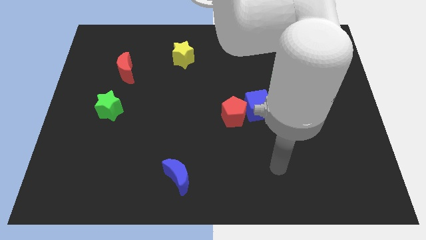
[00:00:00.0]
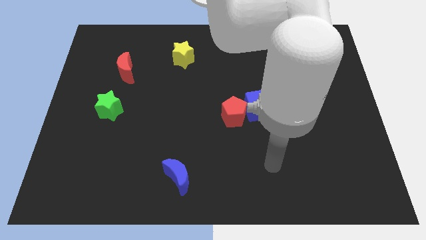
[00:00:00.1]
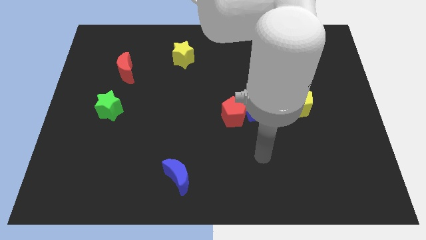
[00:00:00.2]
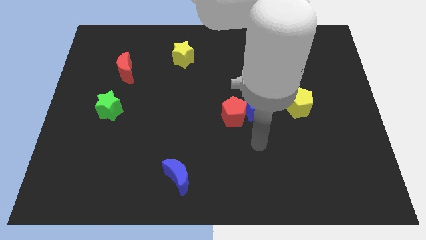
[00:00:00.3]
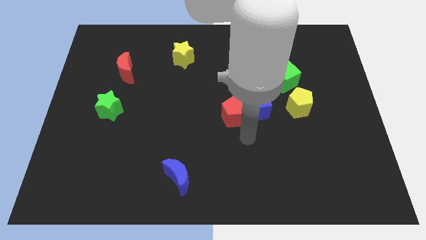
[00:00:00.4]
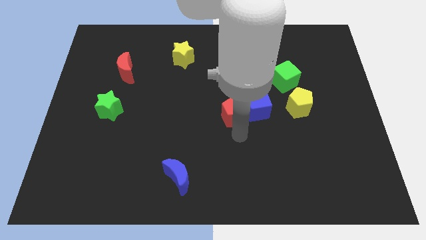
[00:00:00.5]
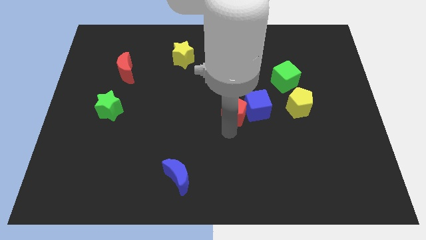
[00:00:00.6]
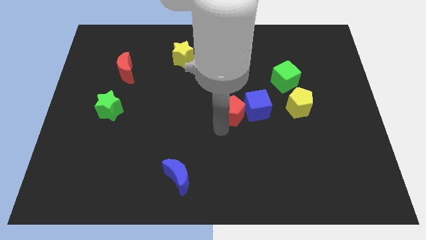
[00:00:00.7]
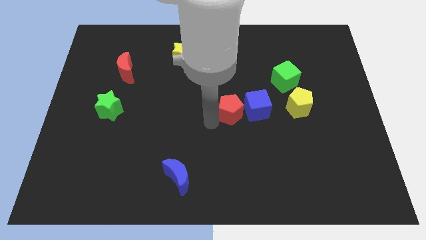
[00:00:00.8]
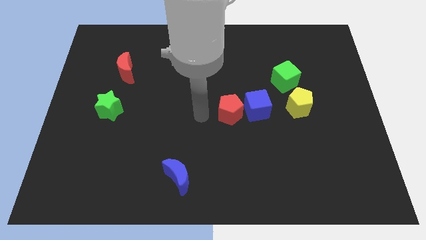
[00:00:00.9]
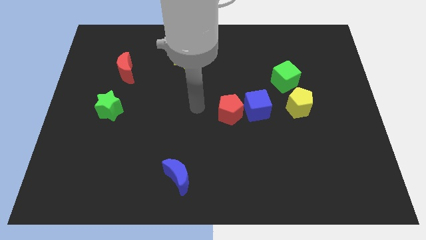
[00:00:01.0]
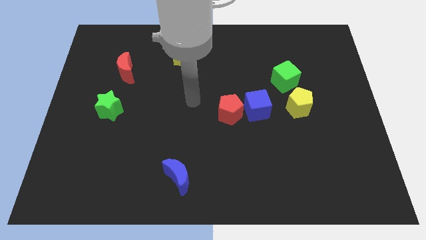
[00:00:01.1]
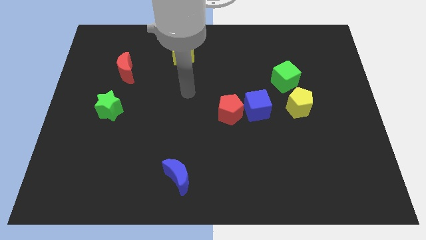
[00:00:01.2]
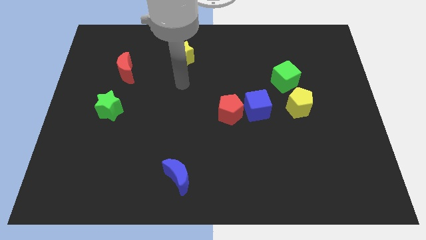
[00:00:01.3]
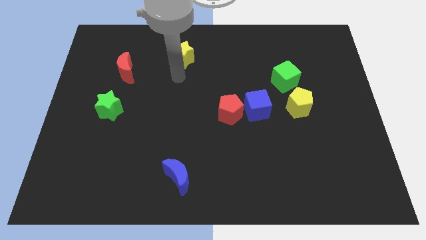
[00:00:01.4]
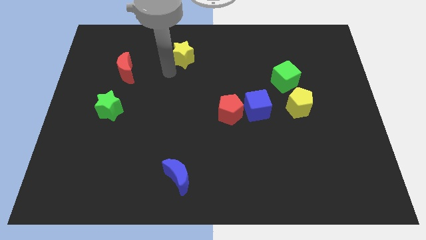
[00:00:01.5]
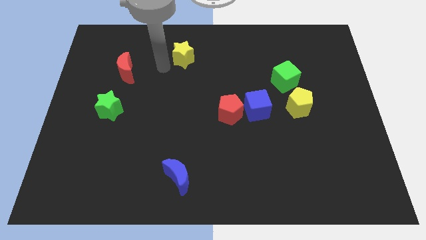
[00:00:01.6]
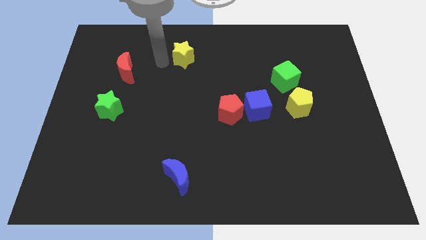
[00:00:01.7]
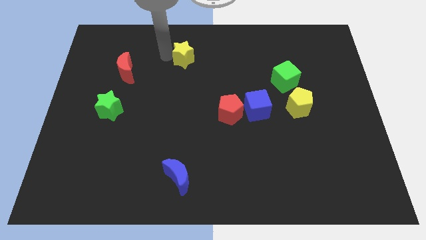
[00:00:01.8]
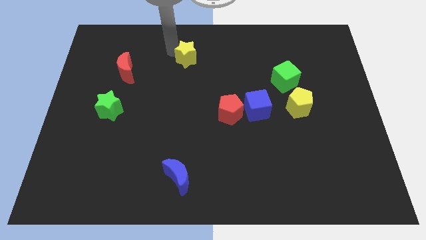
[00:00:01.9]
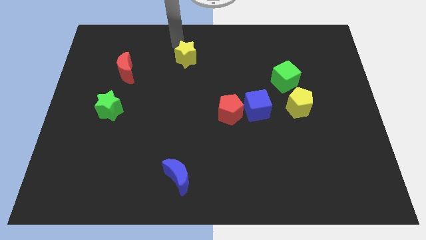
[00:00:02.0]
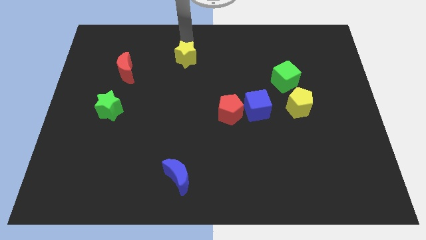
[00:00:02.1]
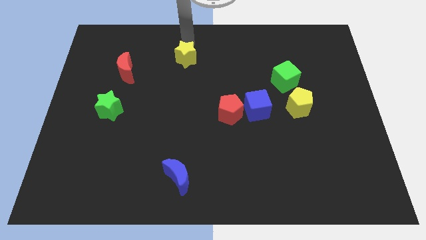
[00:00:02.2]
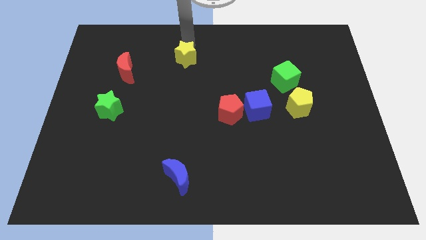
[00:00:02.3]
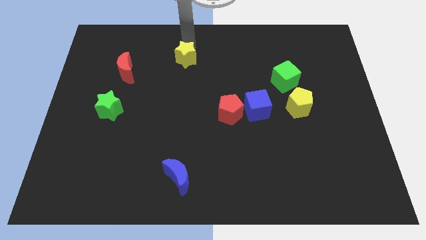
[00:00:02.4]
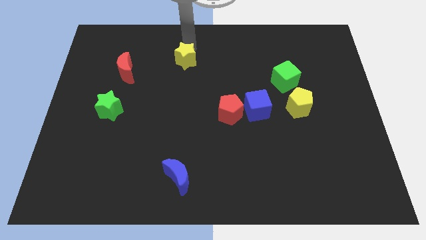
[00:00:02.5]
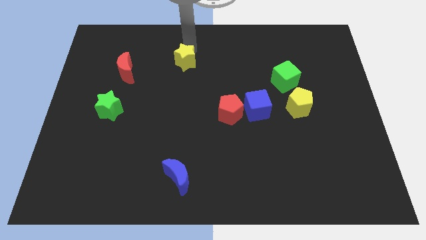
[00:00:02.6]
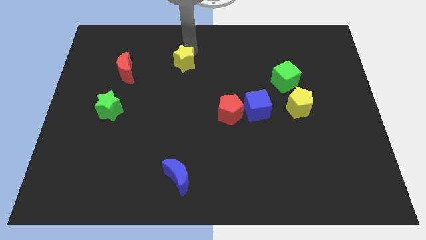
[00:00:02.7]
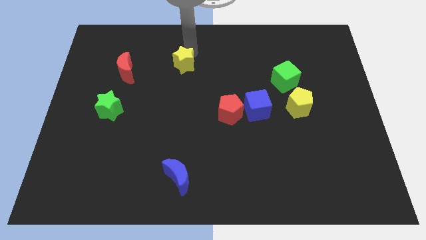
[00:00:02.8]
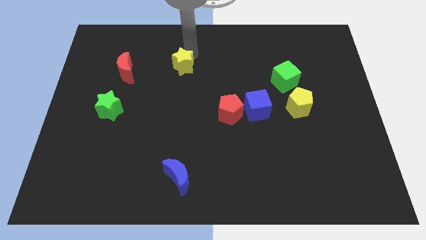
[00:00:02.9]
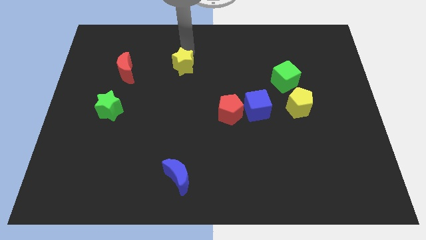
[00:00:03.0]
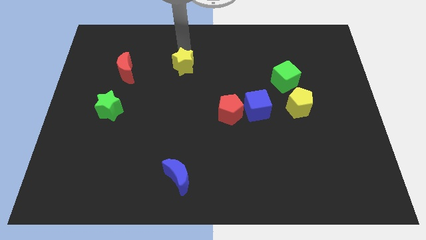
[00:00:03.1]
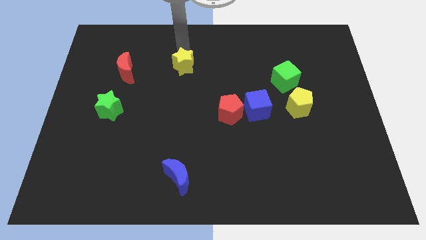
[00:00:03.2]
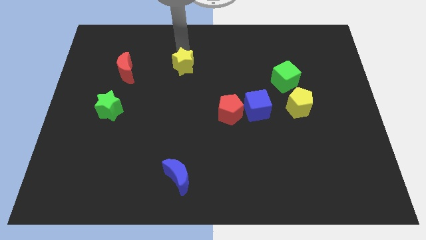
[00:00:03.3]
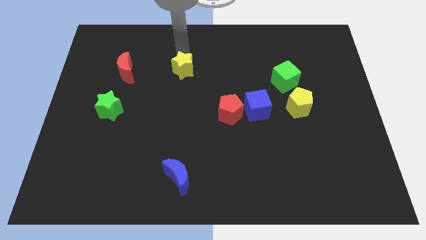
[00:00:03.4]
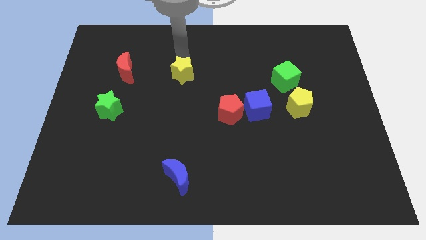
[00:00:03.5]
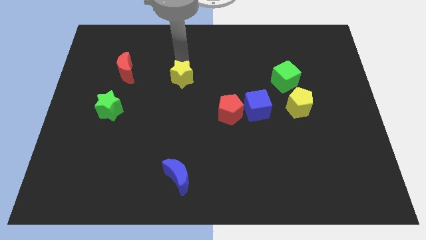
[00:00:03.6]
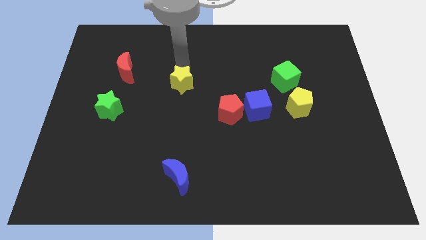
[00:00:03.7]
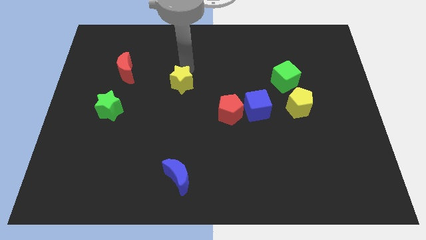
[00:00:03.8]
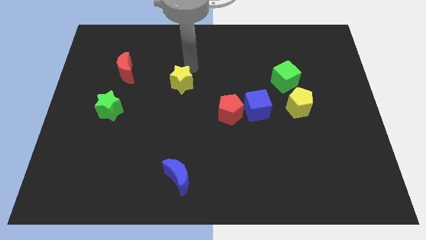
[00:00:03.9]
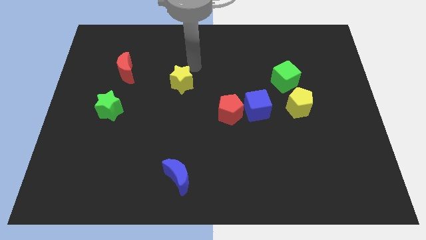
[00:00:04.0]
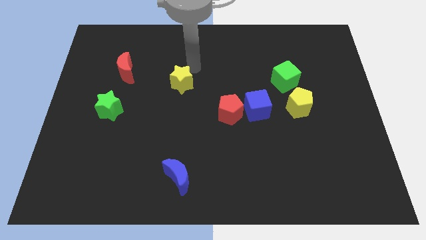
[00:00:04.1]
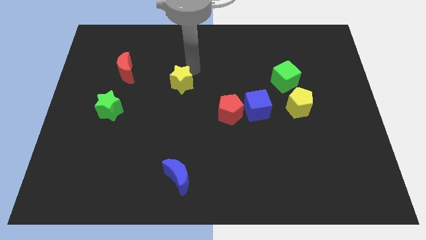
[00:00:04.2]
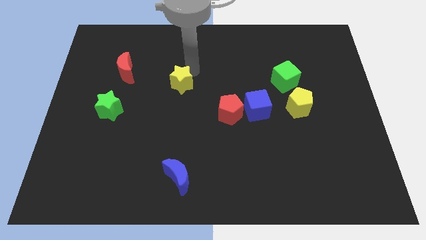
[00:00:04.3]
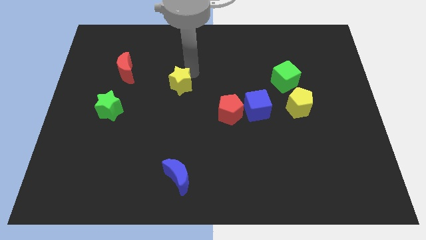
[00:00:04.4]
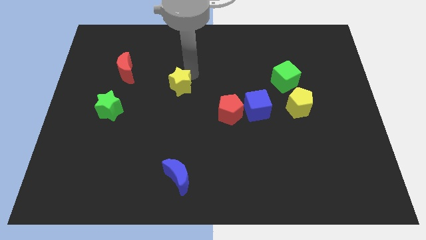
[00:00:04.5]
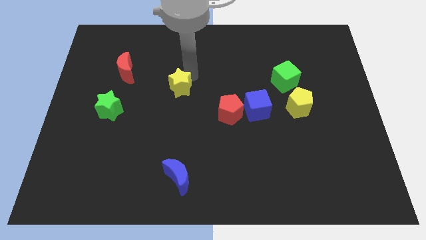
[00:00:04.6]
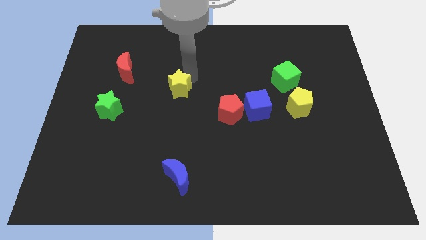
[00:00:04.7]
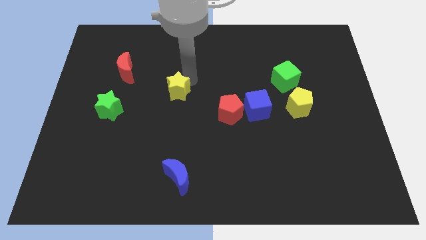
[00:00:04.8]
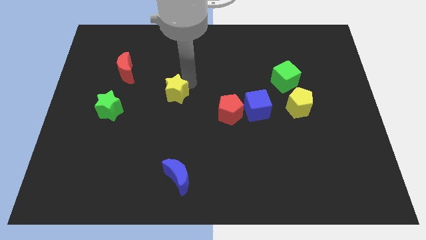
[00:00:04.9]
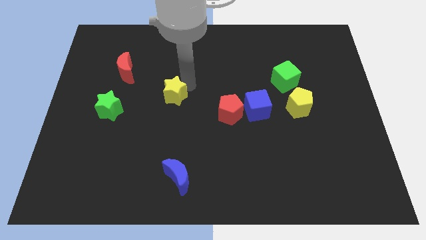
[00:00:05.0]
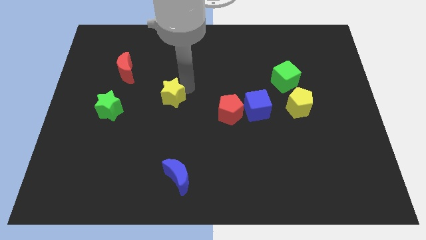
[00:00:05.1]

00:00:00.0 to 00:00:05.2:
slide the yellow star to the right side of the green star

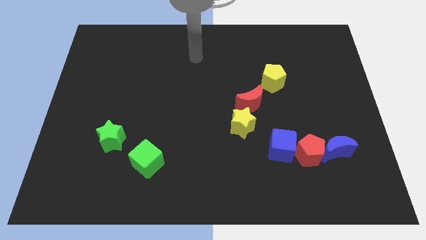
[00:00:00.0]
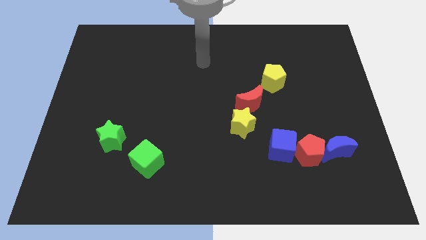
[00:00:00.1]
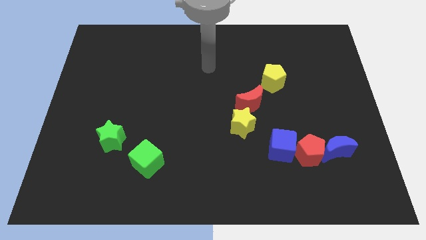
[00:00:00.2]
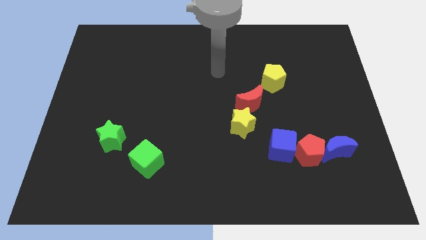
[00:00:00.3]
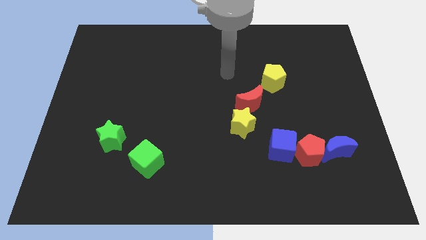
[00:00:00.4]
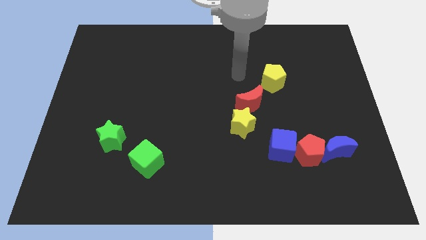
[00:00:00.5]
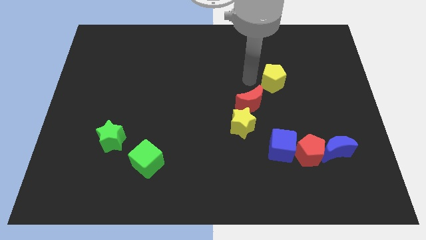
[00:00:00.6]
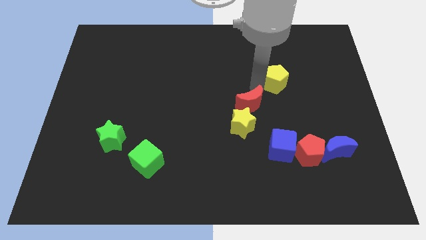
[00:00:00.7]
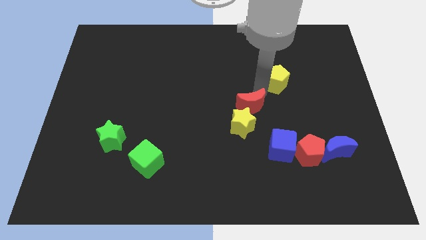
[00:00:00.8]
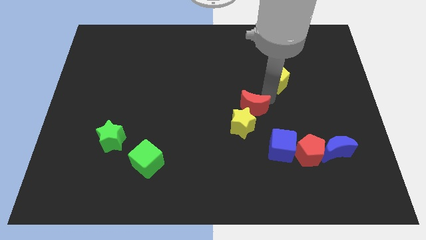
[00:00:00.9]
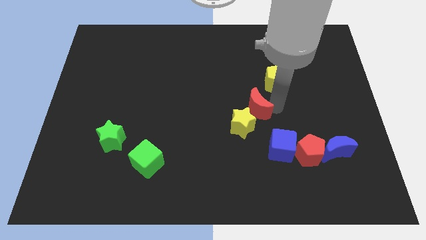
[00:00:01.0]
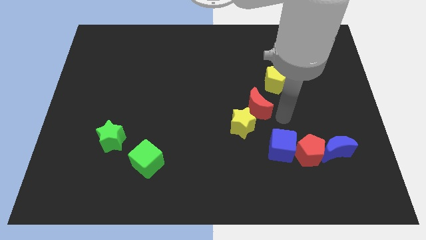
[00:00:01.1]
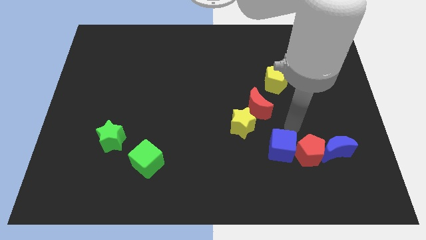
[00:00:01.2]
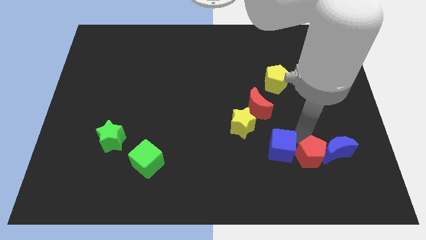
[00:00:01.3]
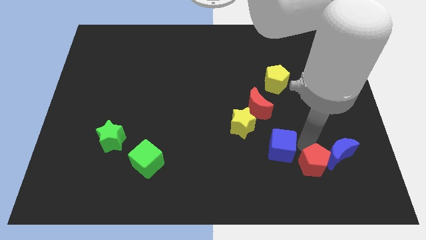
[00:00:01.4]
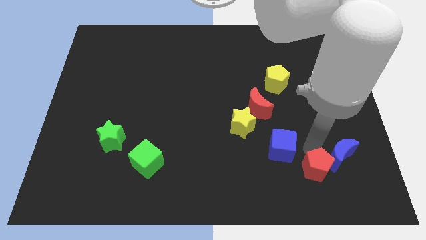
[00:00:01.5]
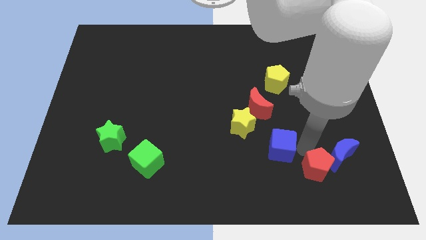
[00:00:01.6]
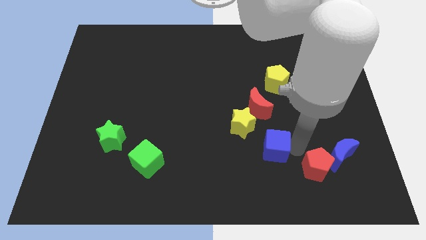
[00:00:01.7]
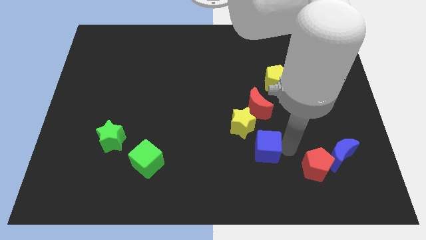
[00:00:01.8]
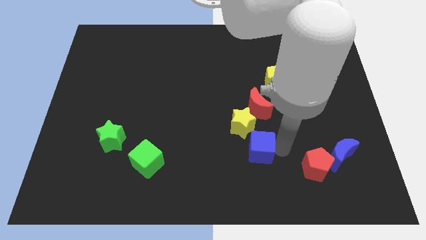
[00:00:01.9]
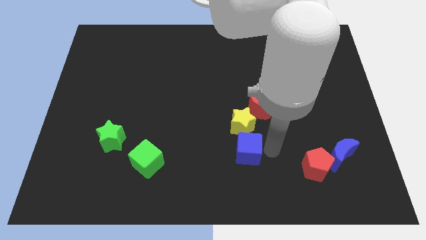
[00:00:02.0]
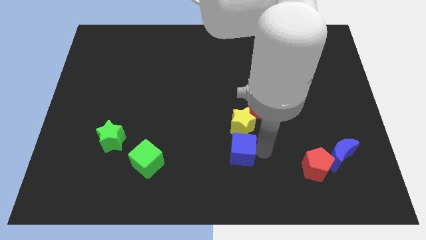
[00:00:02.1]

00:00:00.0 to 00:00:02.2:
slide the blue cube diagonally down and to the left of the yellow star

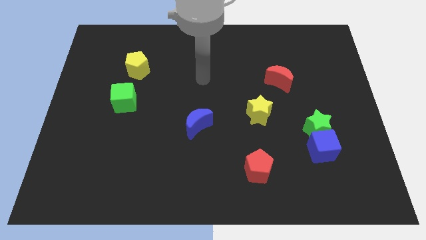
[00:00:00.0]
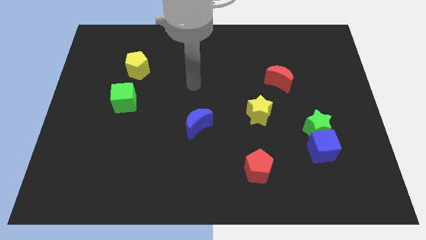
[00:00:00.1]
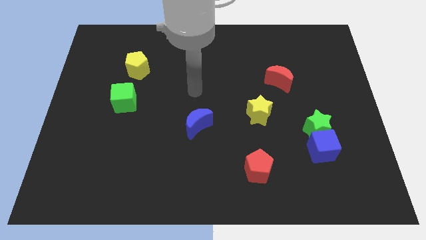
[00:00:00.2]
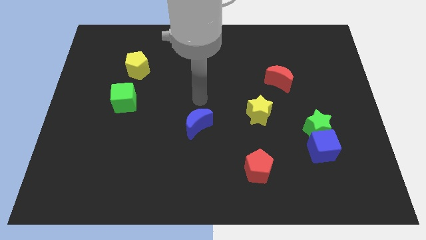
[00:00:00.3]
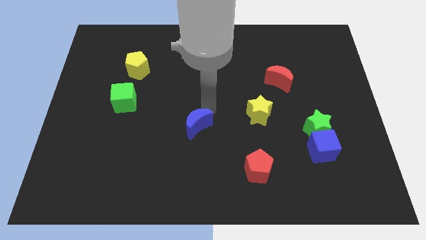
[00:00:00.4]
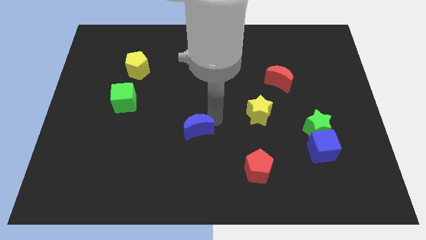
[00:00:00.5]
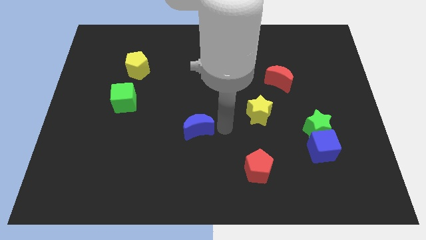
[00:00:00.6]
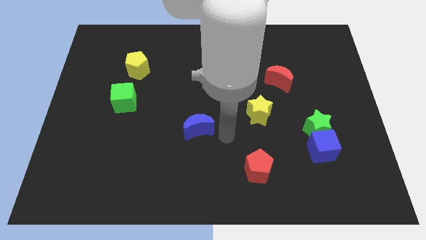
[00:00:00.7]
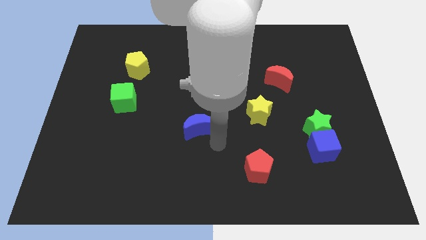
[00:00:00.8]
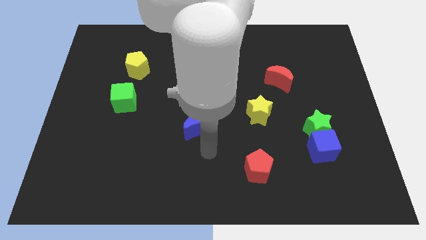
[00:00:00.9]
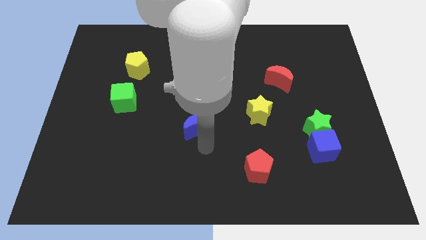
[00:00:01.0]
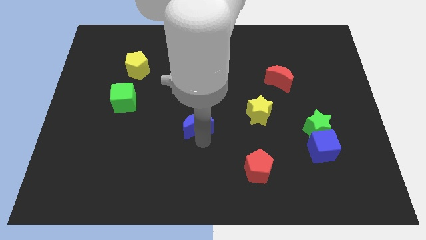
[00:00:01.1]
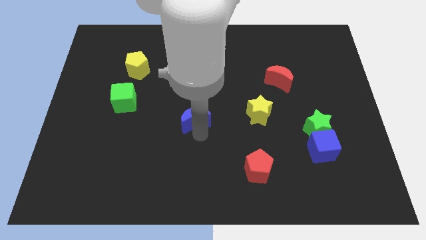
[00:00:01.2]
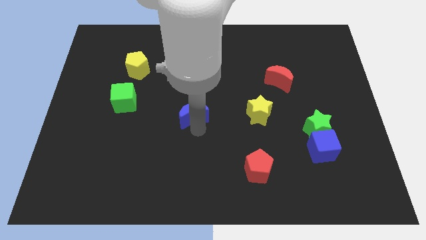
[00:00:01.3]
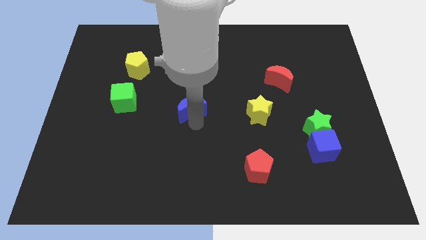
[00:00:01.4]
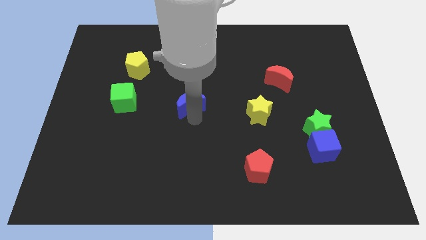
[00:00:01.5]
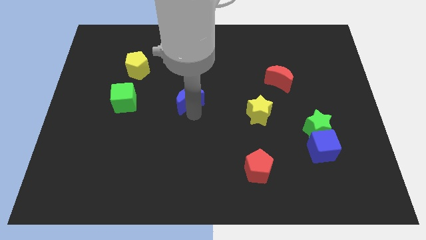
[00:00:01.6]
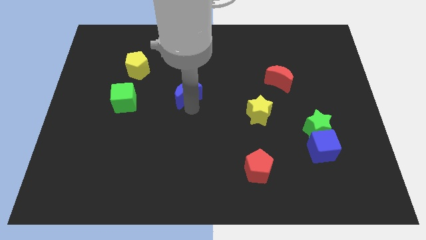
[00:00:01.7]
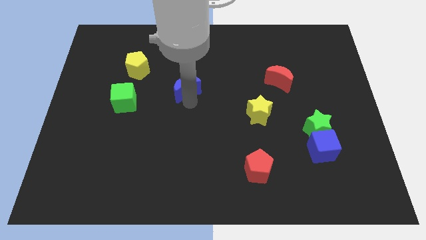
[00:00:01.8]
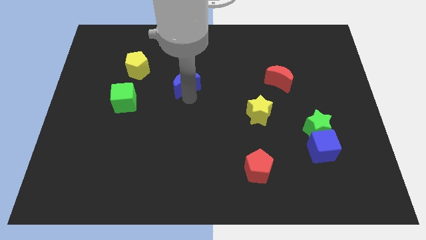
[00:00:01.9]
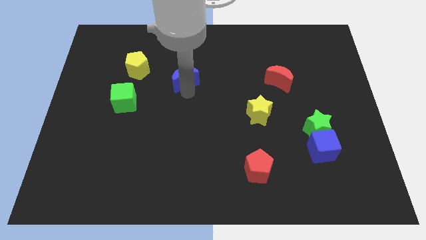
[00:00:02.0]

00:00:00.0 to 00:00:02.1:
move the blue moon to the right side of the yellow pentagon
